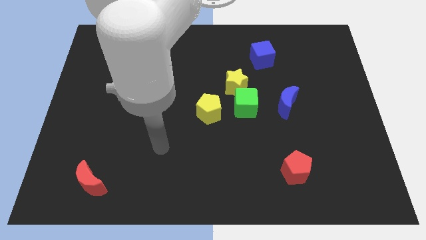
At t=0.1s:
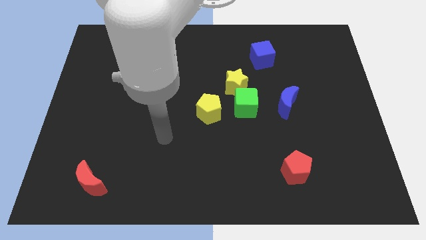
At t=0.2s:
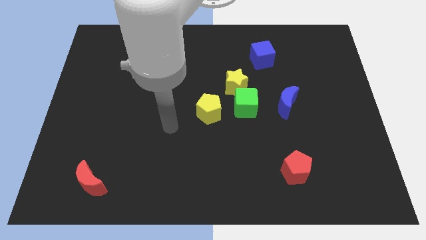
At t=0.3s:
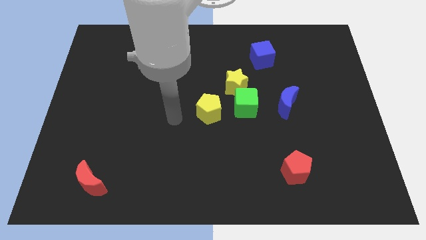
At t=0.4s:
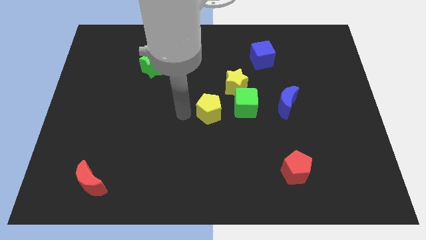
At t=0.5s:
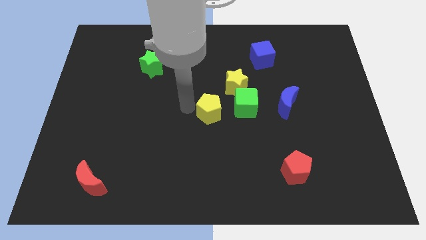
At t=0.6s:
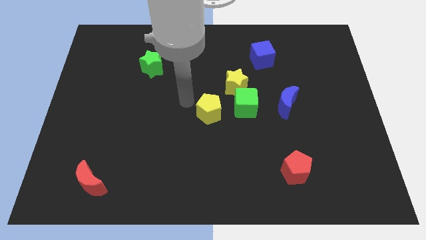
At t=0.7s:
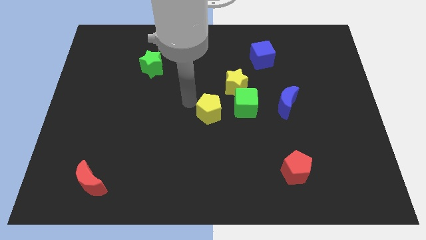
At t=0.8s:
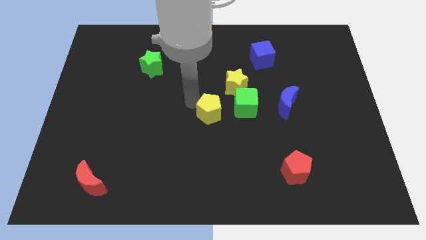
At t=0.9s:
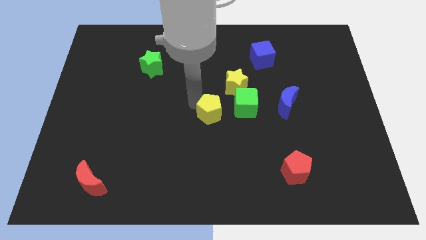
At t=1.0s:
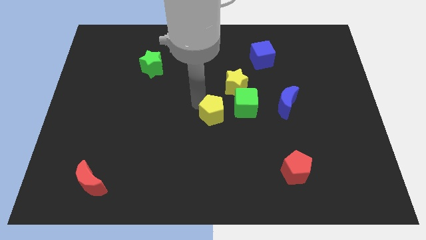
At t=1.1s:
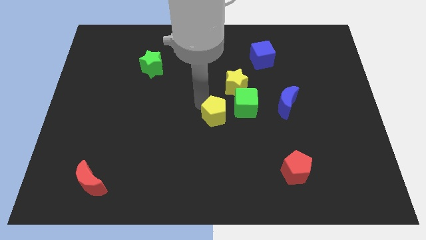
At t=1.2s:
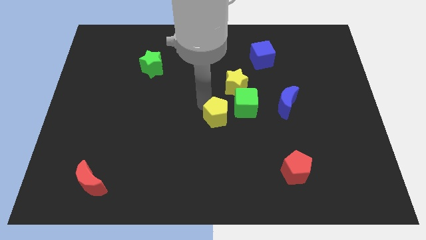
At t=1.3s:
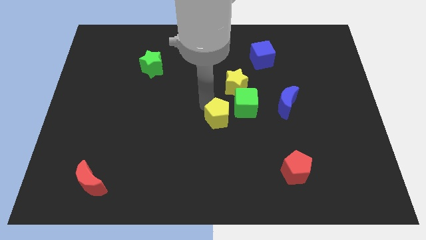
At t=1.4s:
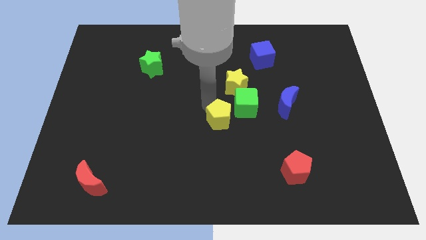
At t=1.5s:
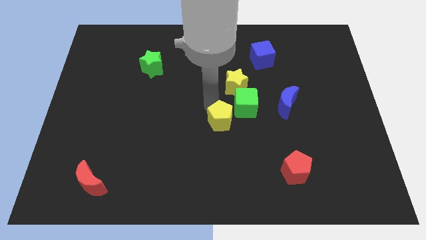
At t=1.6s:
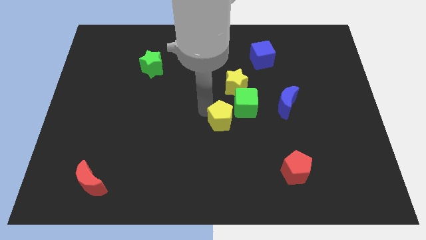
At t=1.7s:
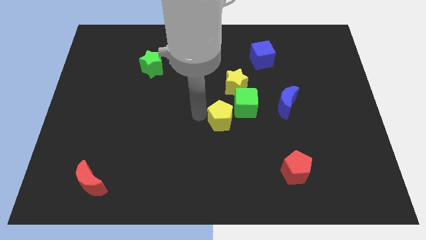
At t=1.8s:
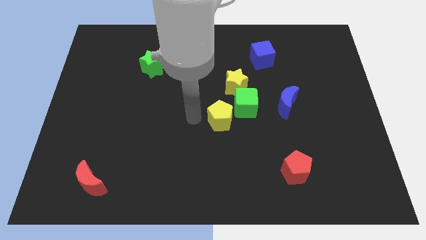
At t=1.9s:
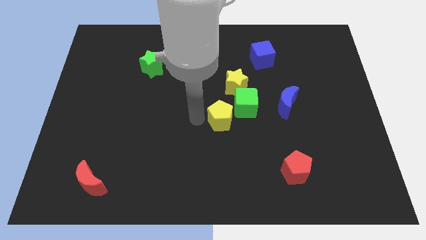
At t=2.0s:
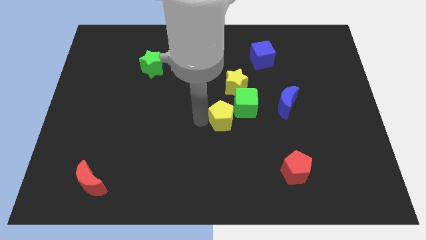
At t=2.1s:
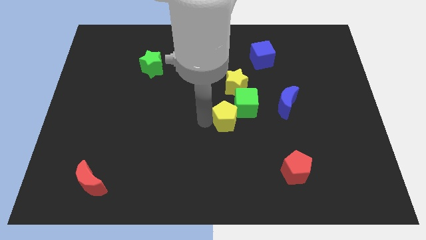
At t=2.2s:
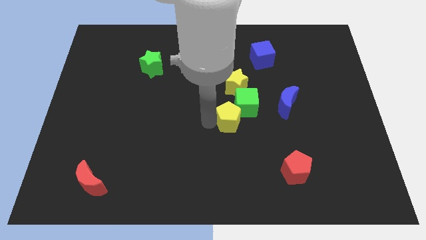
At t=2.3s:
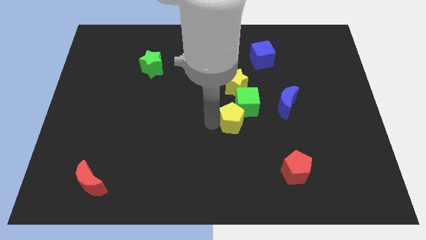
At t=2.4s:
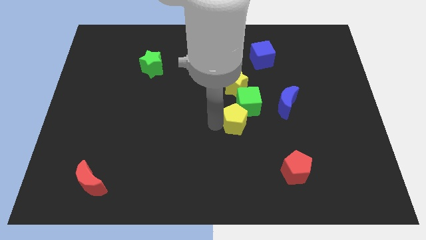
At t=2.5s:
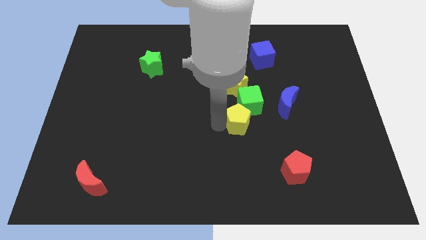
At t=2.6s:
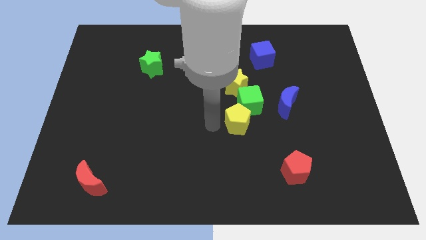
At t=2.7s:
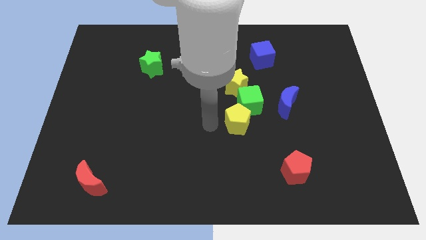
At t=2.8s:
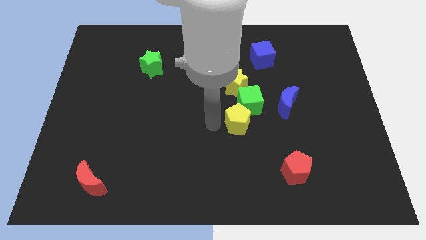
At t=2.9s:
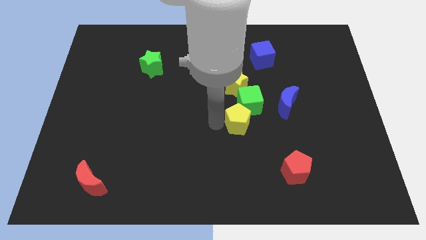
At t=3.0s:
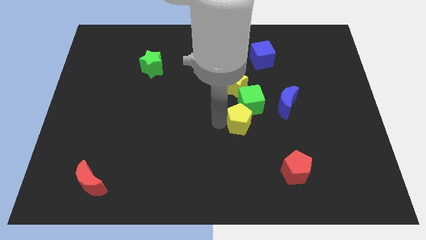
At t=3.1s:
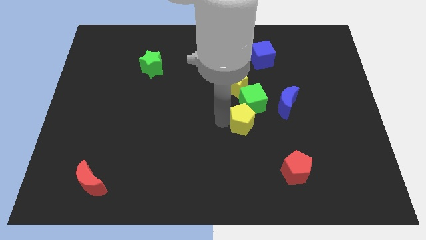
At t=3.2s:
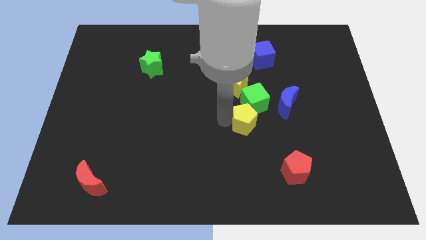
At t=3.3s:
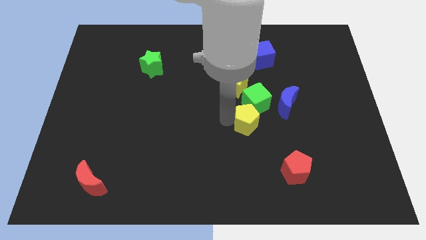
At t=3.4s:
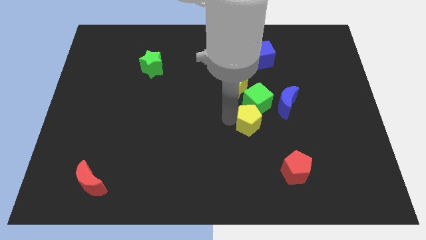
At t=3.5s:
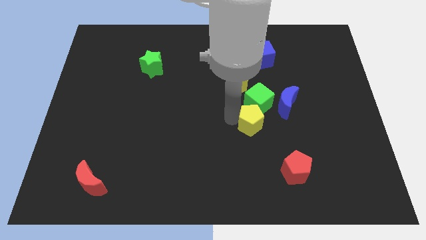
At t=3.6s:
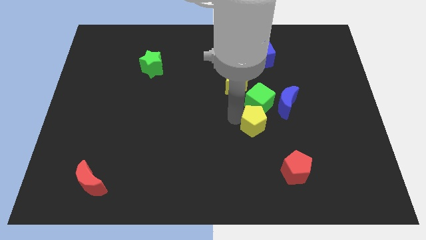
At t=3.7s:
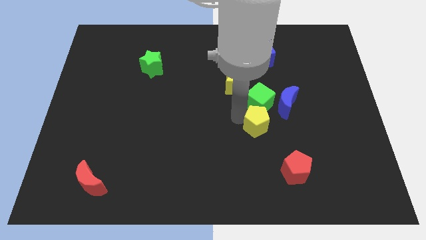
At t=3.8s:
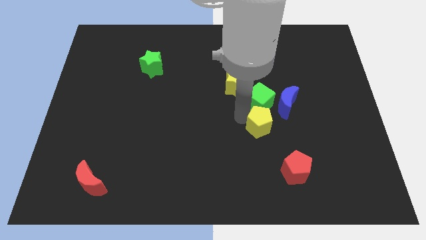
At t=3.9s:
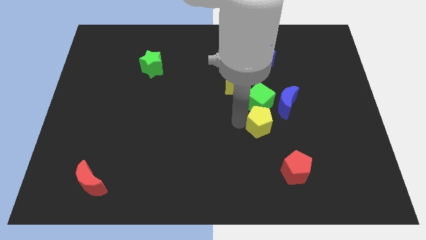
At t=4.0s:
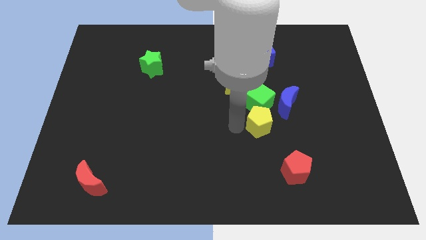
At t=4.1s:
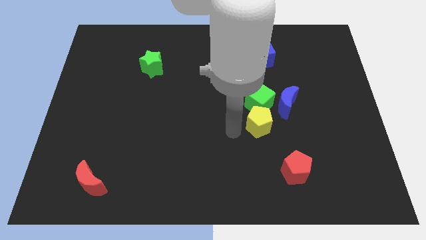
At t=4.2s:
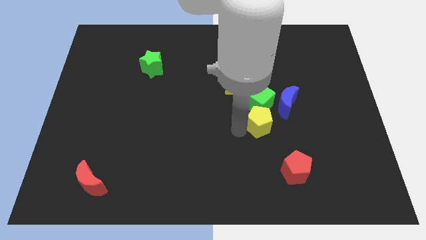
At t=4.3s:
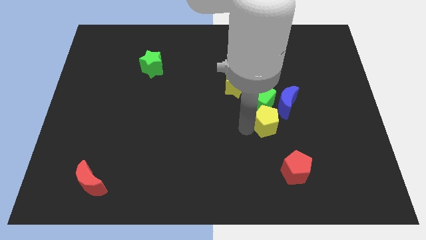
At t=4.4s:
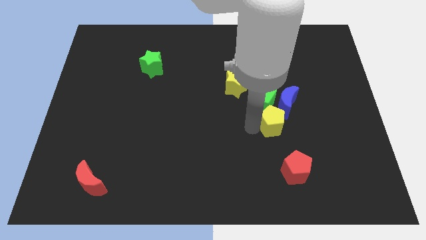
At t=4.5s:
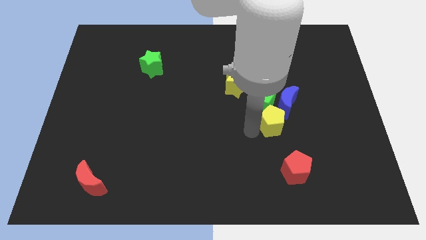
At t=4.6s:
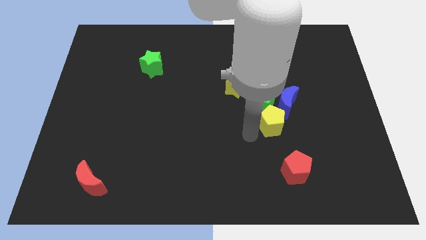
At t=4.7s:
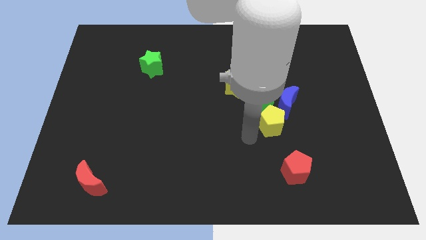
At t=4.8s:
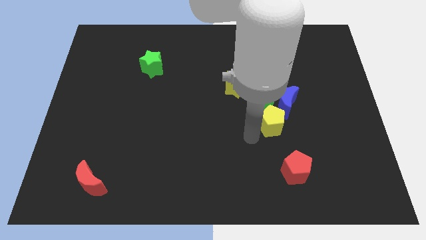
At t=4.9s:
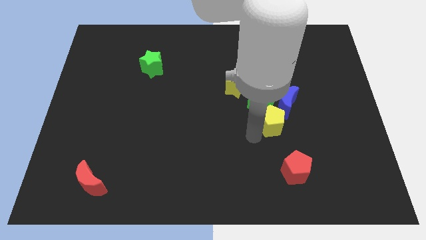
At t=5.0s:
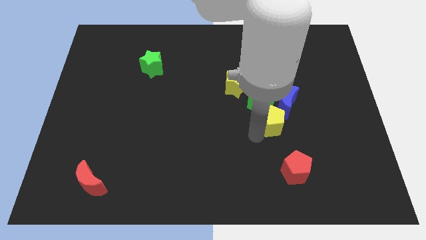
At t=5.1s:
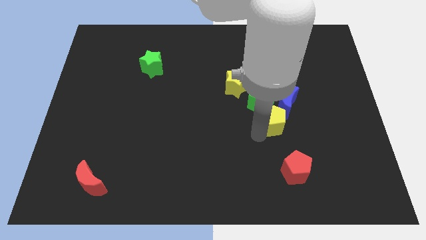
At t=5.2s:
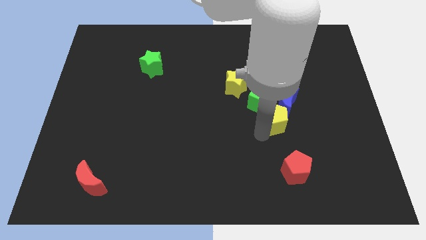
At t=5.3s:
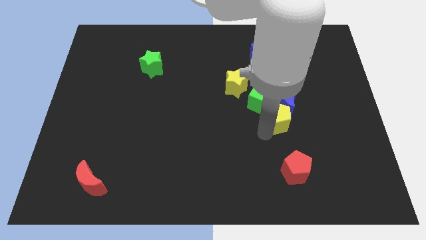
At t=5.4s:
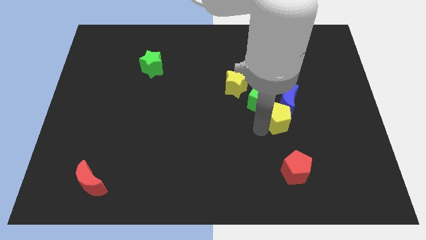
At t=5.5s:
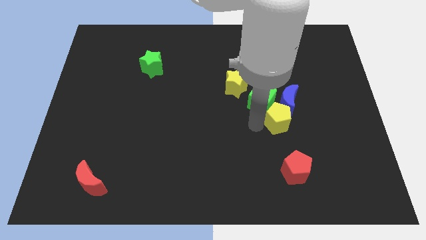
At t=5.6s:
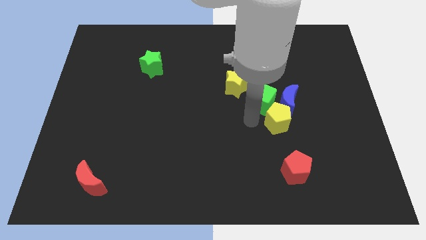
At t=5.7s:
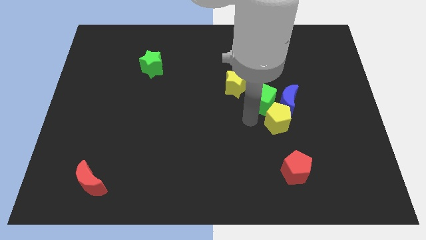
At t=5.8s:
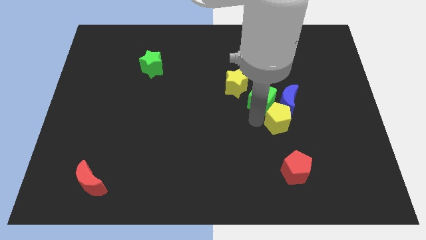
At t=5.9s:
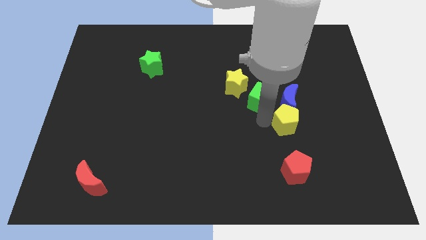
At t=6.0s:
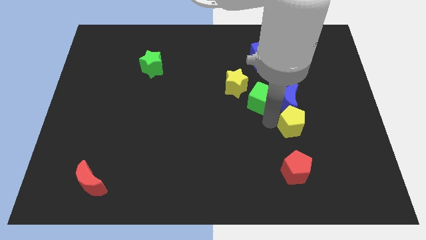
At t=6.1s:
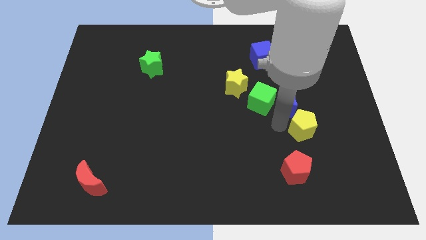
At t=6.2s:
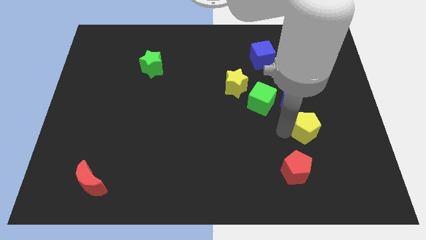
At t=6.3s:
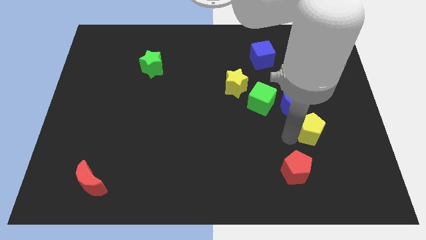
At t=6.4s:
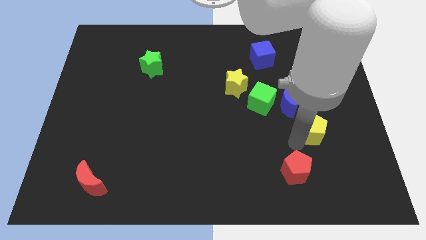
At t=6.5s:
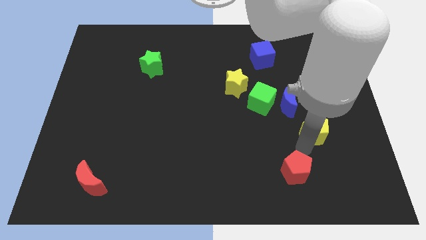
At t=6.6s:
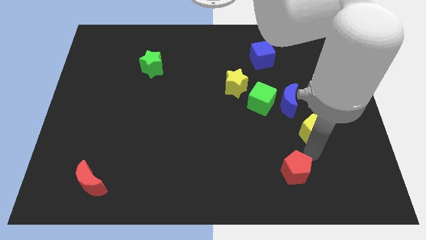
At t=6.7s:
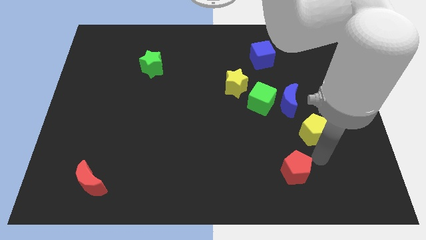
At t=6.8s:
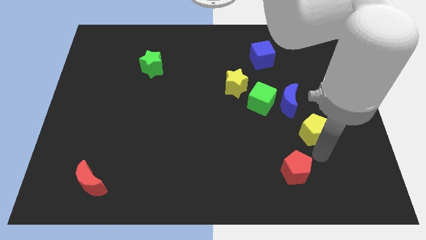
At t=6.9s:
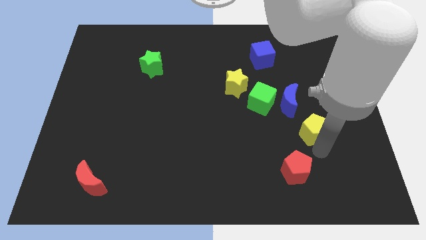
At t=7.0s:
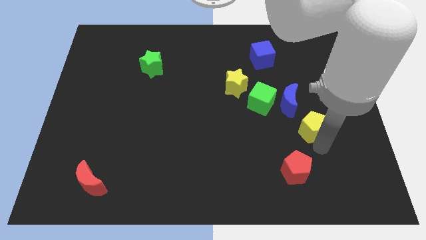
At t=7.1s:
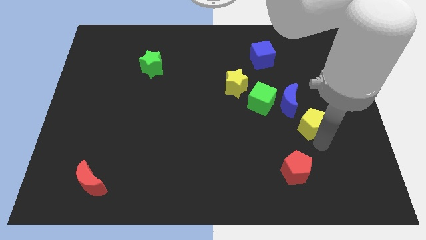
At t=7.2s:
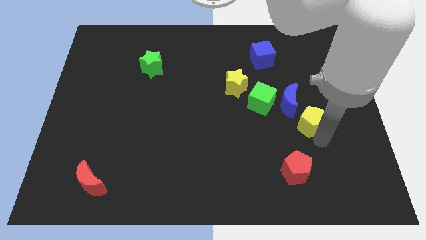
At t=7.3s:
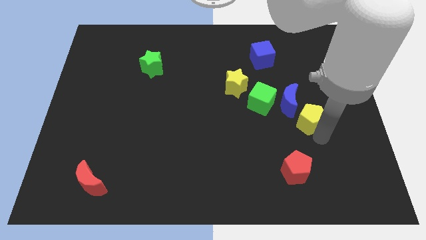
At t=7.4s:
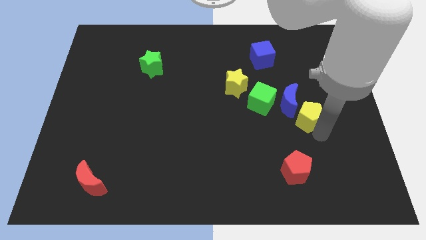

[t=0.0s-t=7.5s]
push the yellow pentagon just right of the green cube
